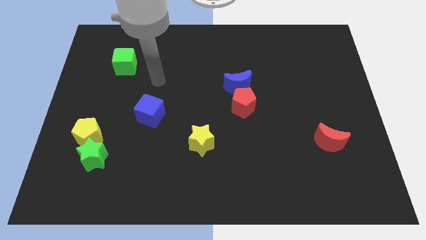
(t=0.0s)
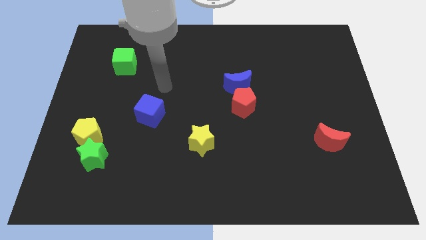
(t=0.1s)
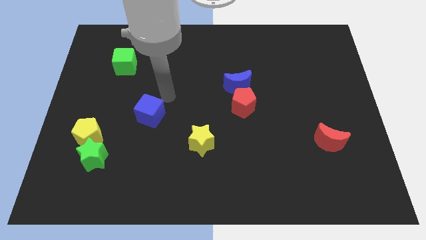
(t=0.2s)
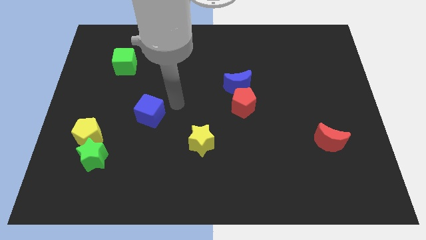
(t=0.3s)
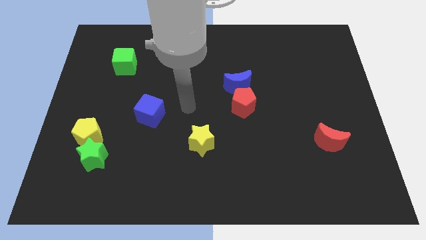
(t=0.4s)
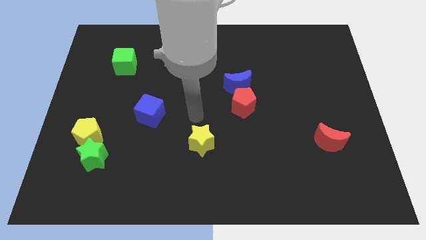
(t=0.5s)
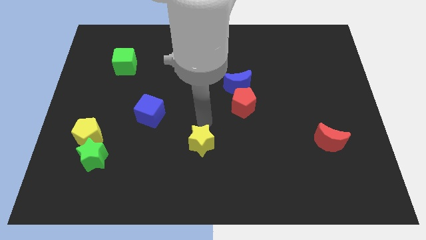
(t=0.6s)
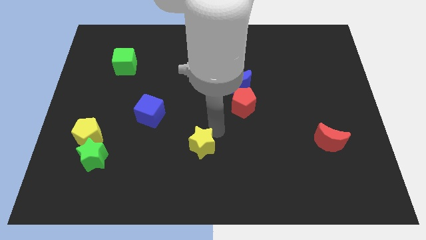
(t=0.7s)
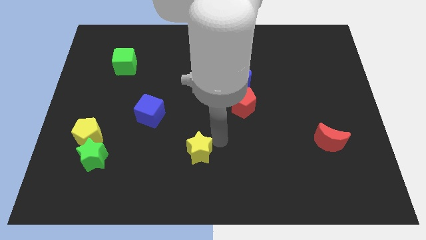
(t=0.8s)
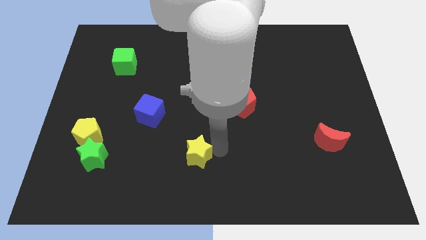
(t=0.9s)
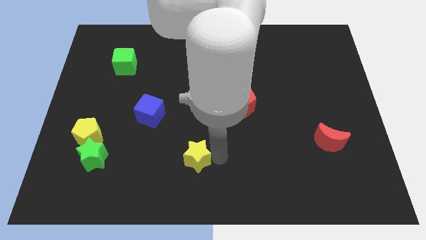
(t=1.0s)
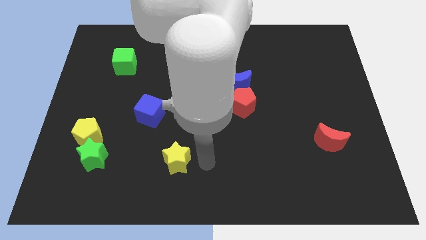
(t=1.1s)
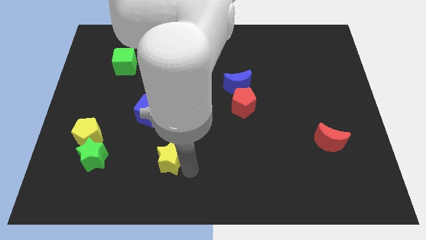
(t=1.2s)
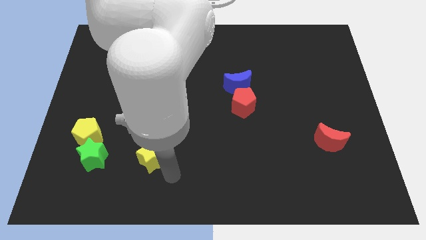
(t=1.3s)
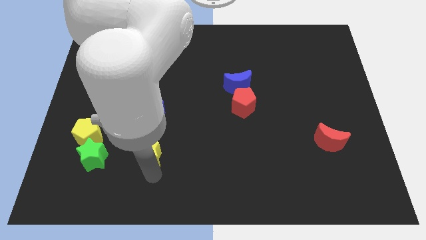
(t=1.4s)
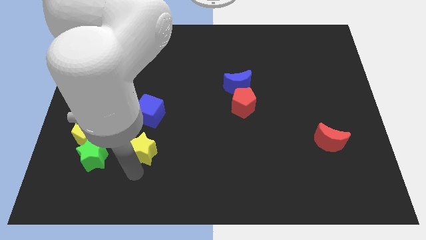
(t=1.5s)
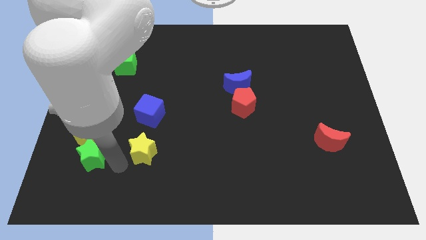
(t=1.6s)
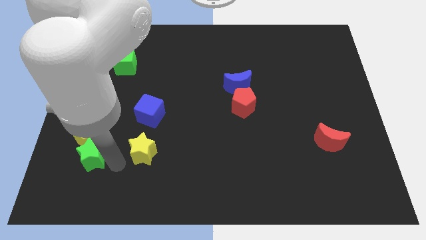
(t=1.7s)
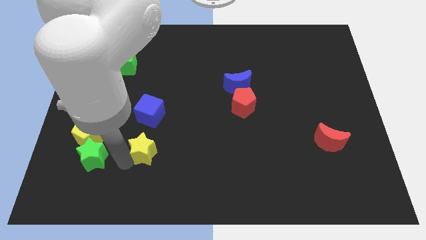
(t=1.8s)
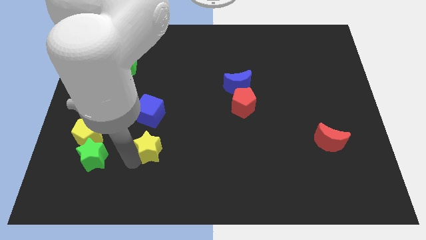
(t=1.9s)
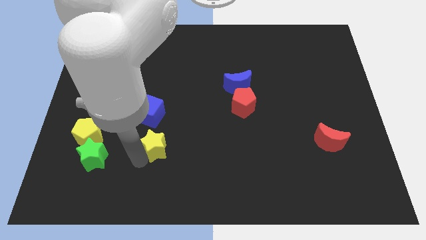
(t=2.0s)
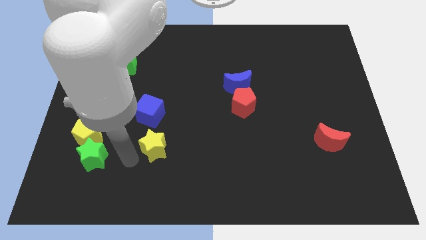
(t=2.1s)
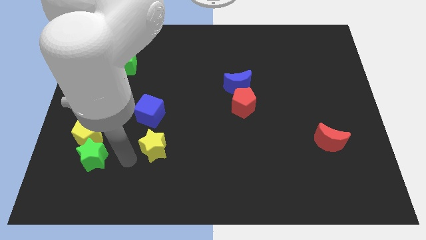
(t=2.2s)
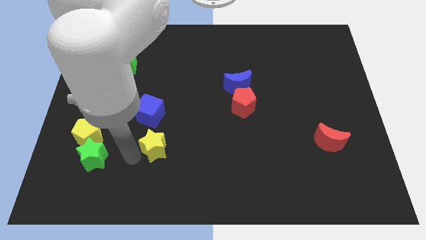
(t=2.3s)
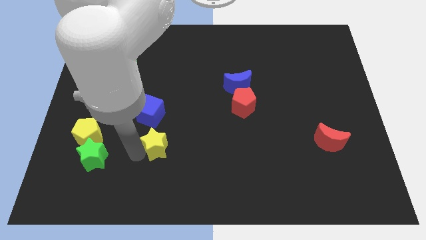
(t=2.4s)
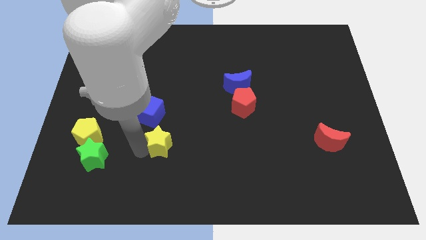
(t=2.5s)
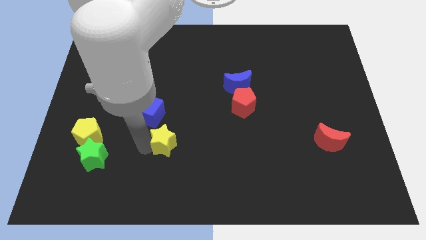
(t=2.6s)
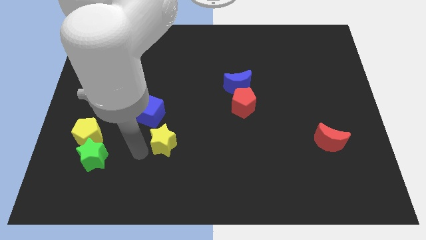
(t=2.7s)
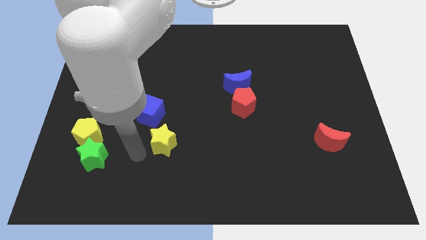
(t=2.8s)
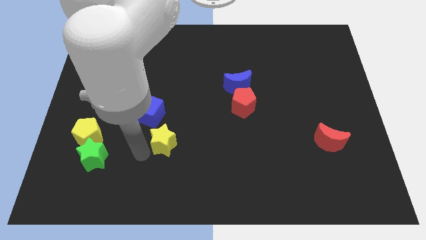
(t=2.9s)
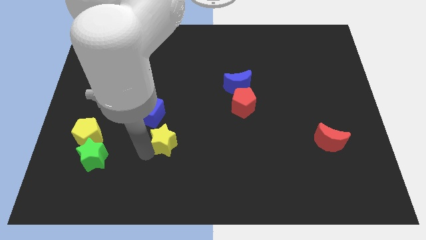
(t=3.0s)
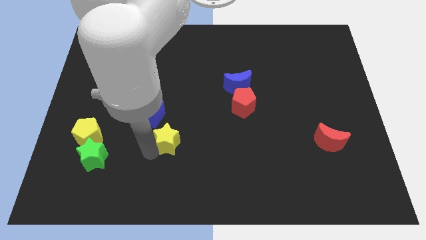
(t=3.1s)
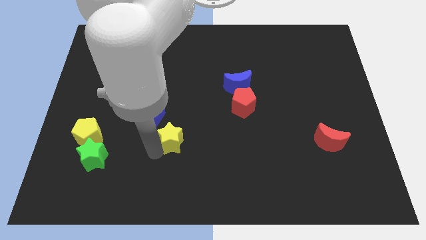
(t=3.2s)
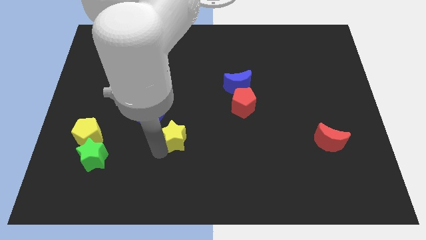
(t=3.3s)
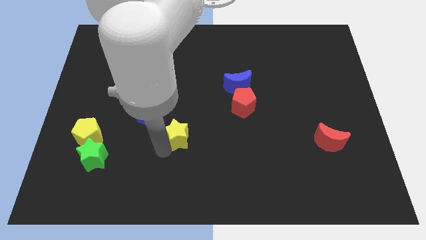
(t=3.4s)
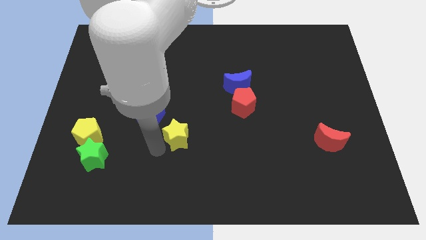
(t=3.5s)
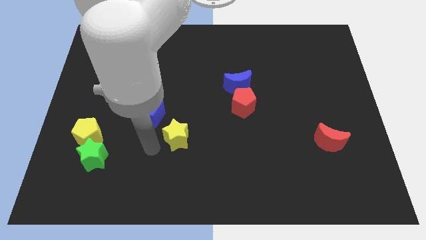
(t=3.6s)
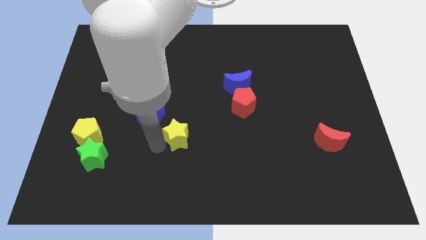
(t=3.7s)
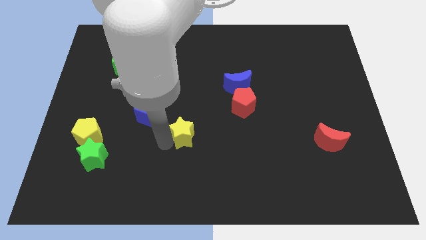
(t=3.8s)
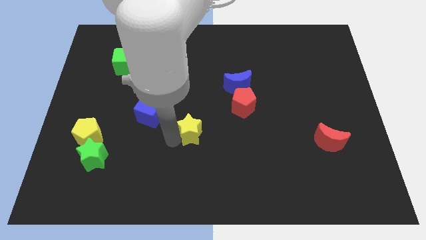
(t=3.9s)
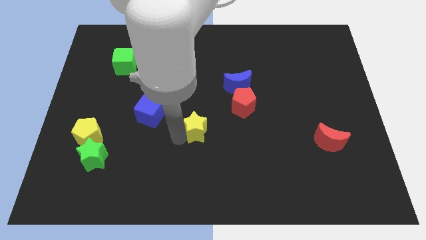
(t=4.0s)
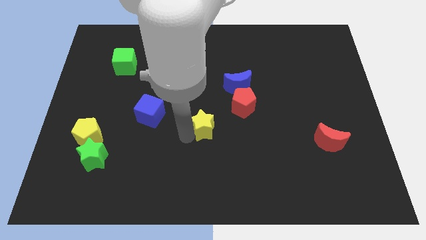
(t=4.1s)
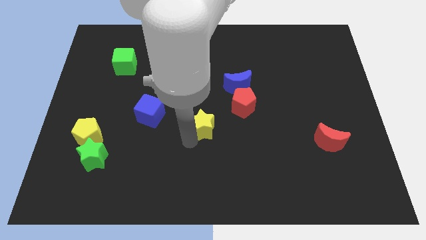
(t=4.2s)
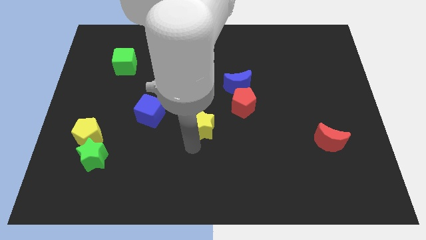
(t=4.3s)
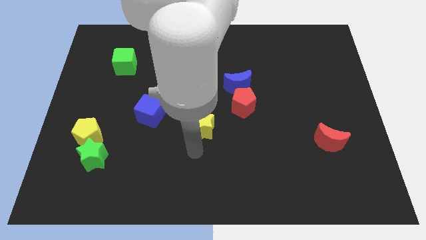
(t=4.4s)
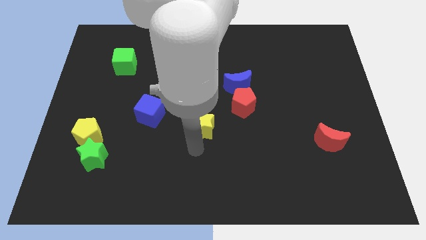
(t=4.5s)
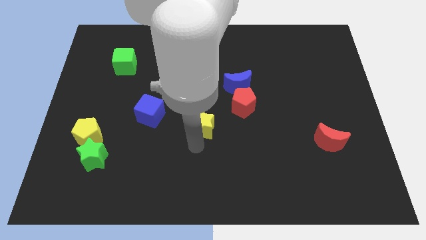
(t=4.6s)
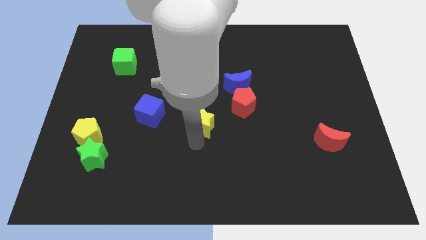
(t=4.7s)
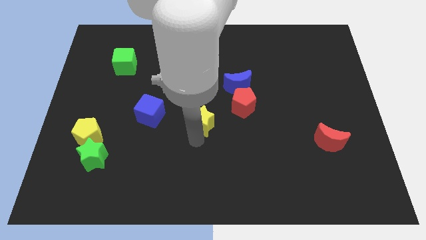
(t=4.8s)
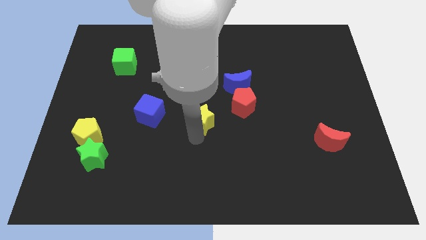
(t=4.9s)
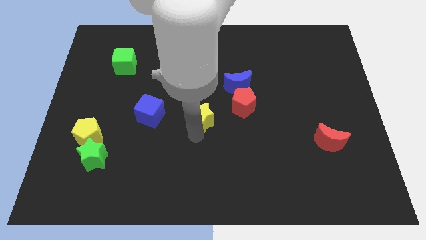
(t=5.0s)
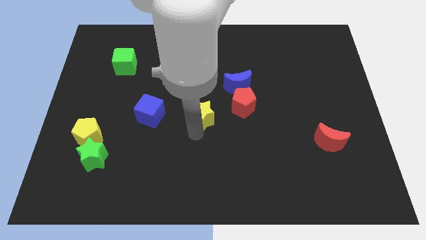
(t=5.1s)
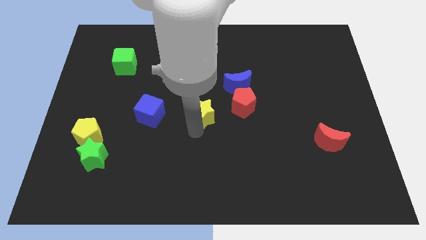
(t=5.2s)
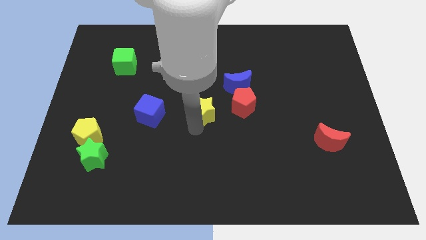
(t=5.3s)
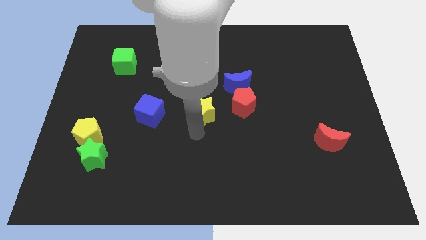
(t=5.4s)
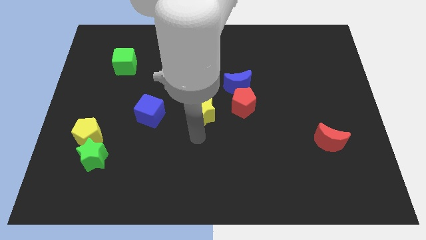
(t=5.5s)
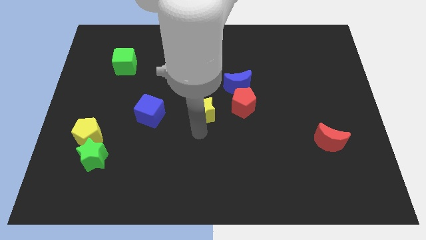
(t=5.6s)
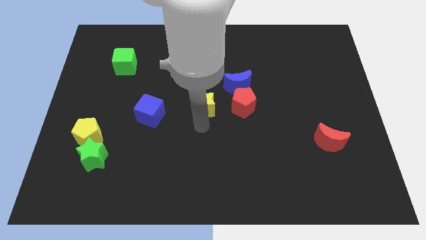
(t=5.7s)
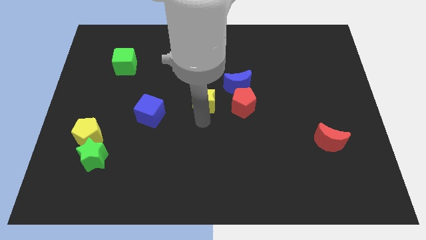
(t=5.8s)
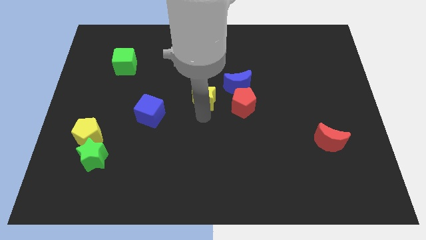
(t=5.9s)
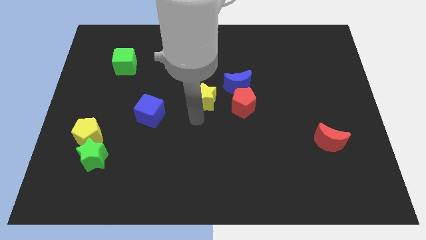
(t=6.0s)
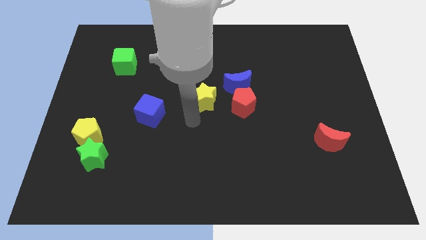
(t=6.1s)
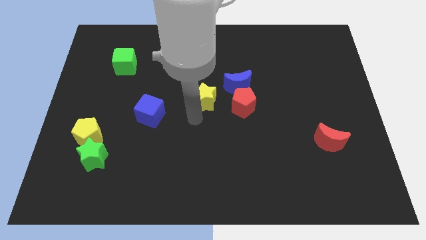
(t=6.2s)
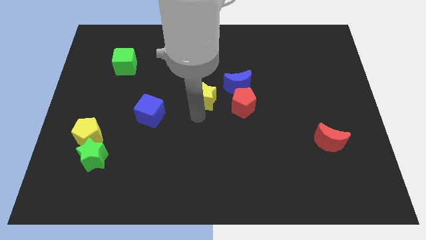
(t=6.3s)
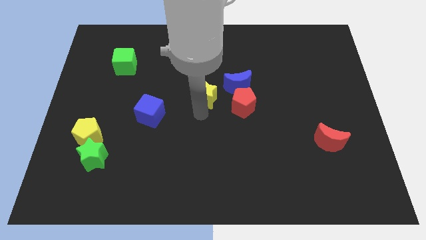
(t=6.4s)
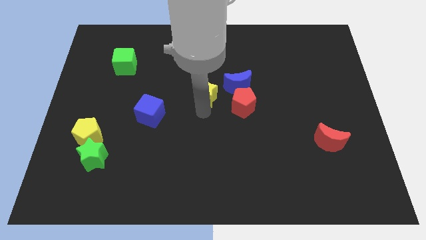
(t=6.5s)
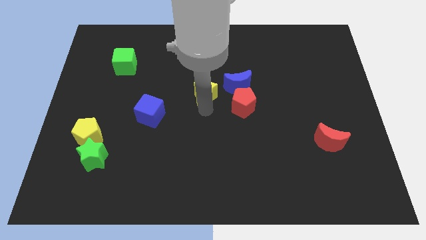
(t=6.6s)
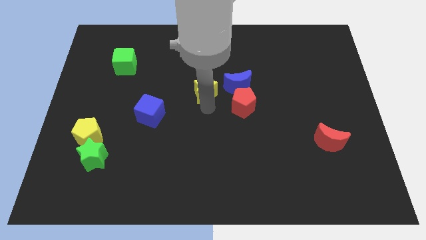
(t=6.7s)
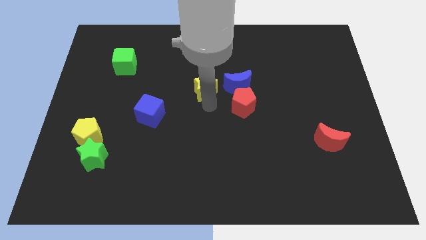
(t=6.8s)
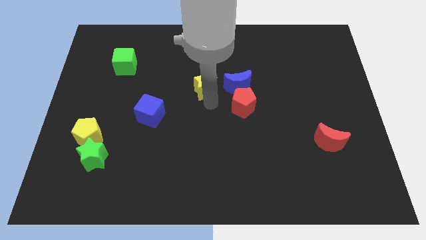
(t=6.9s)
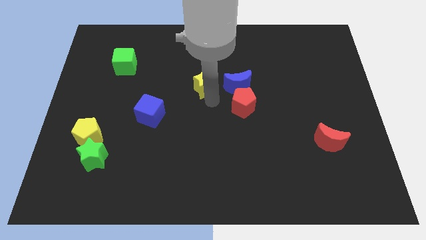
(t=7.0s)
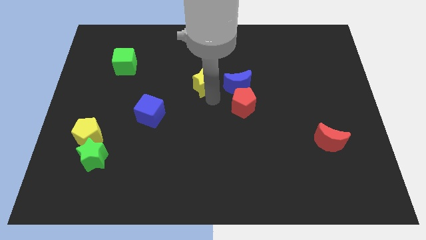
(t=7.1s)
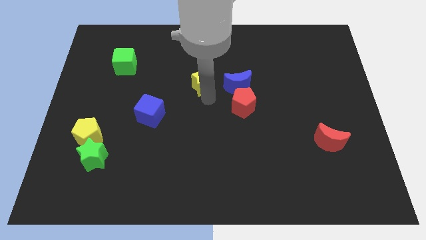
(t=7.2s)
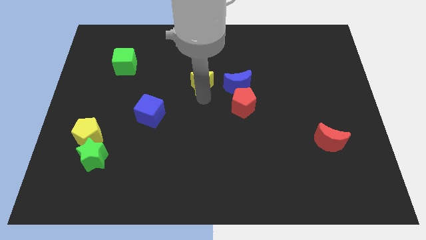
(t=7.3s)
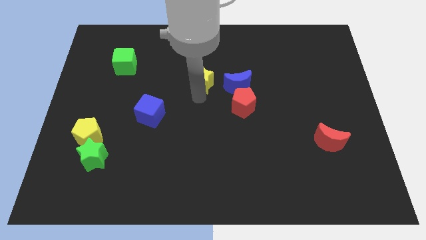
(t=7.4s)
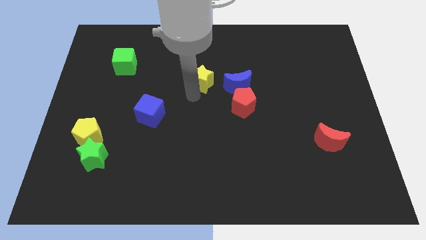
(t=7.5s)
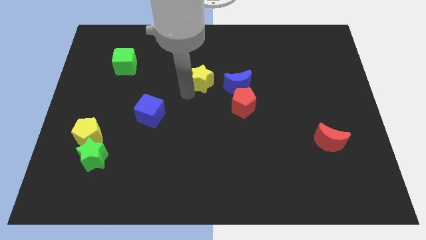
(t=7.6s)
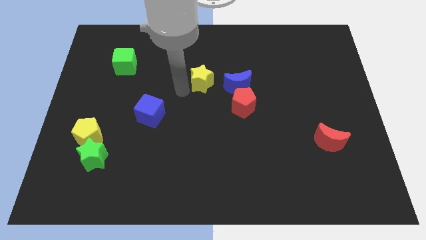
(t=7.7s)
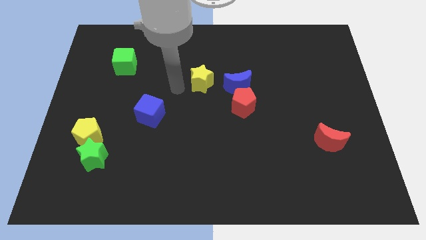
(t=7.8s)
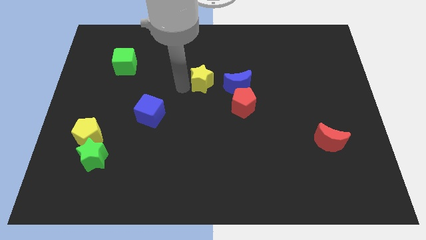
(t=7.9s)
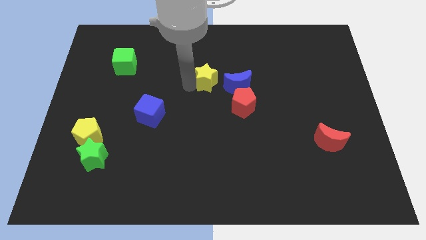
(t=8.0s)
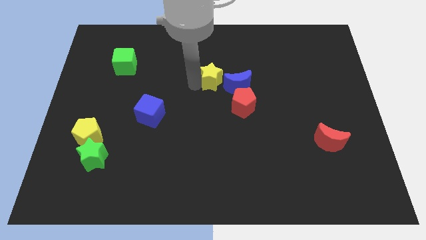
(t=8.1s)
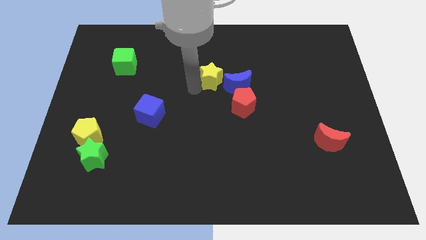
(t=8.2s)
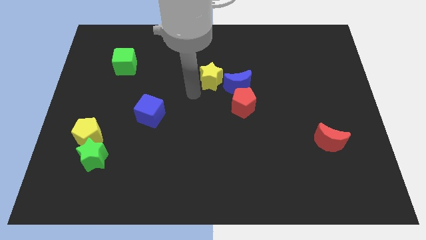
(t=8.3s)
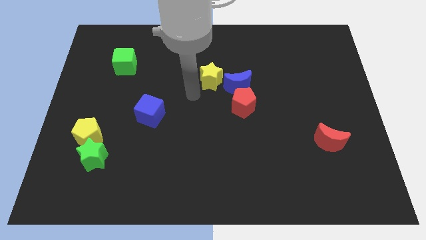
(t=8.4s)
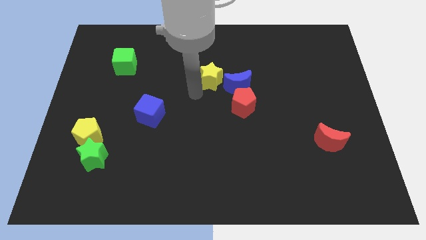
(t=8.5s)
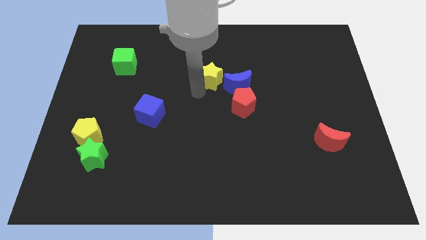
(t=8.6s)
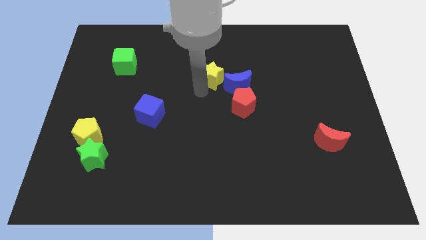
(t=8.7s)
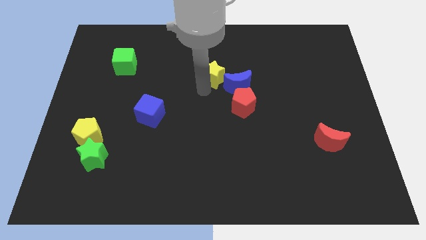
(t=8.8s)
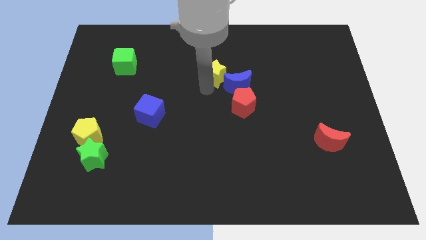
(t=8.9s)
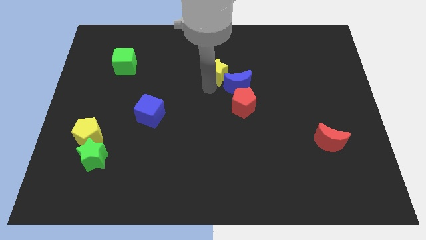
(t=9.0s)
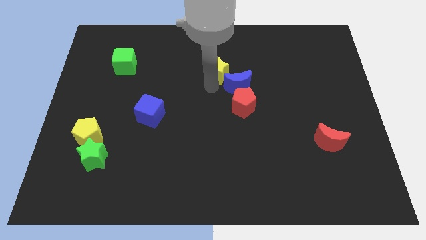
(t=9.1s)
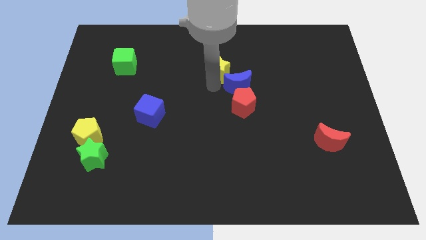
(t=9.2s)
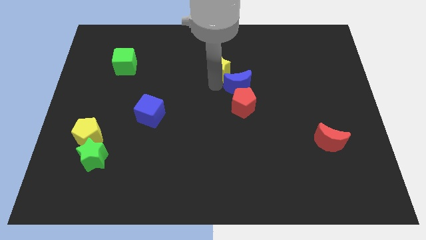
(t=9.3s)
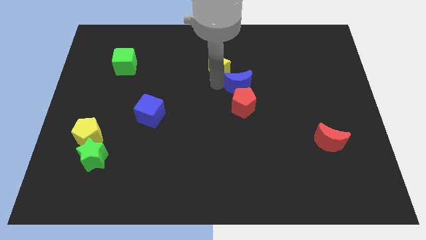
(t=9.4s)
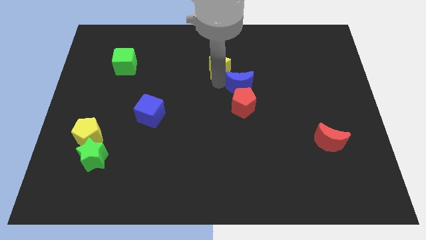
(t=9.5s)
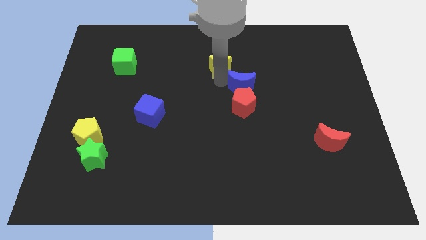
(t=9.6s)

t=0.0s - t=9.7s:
slide the yellow star to the top side of the red pentagon
